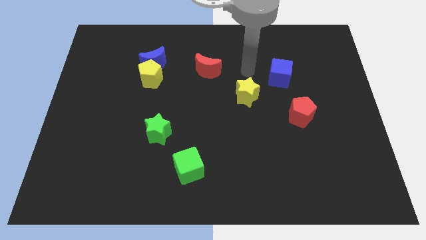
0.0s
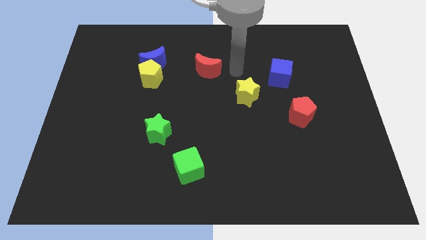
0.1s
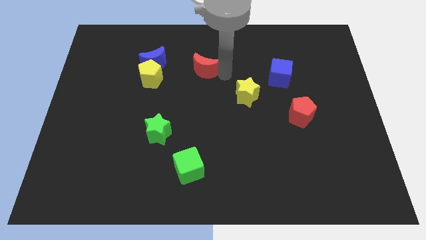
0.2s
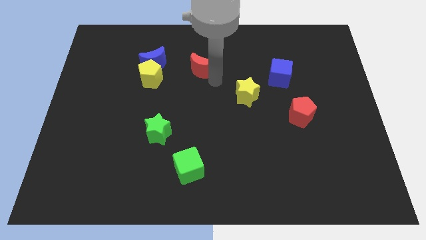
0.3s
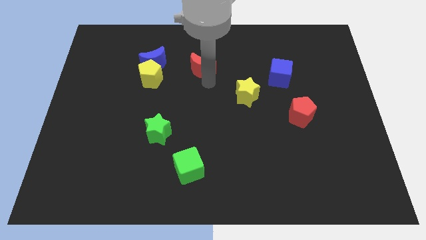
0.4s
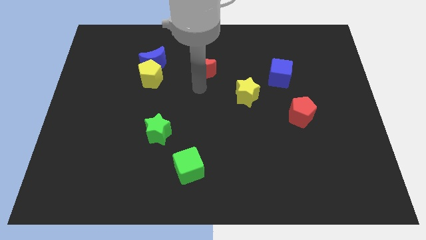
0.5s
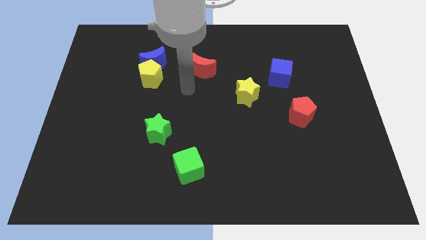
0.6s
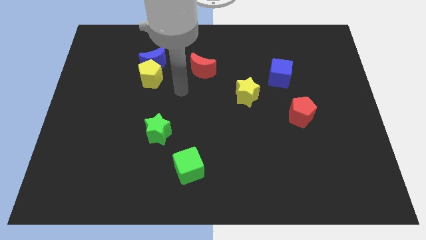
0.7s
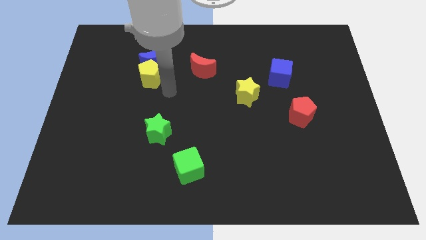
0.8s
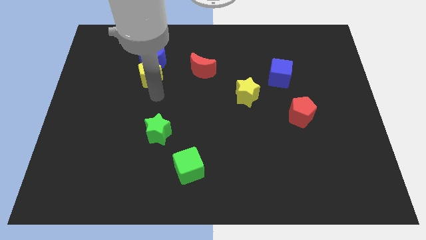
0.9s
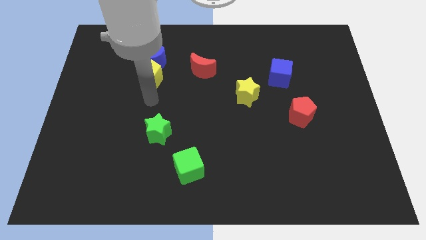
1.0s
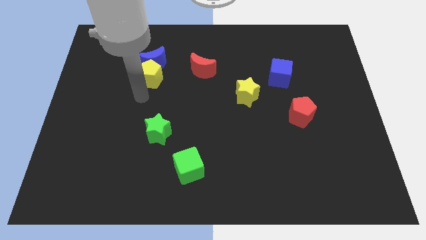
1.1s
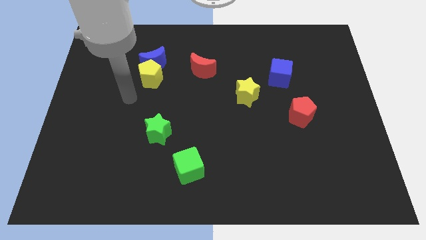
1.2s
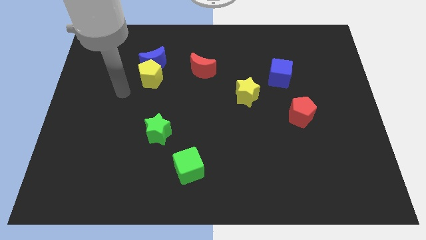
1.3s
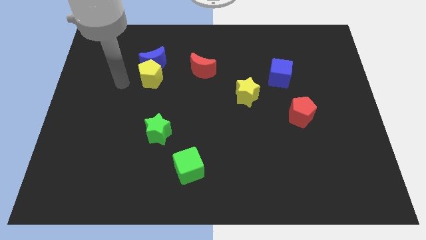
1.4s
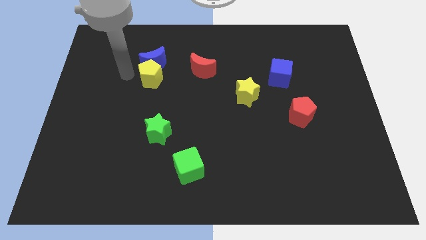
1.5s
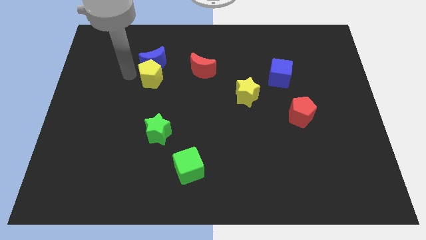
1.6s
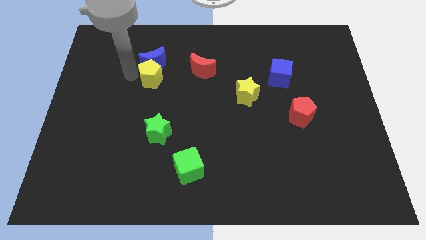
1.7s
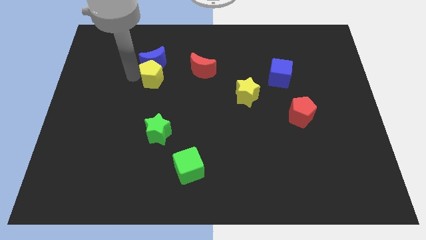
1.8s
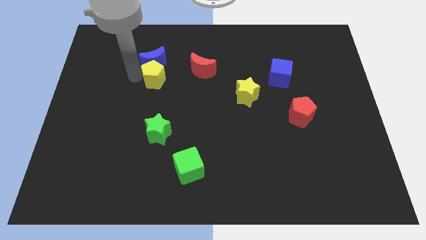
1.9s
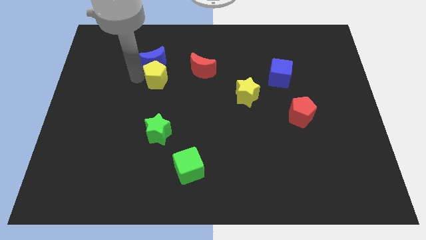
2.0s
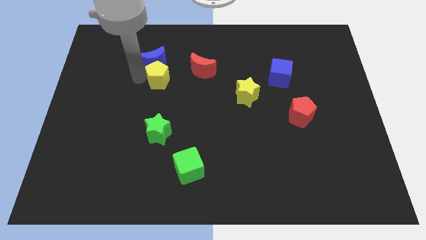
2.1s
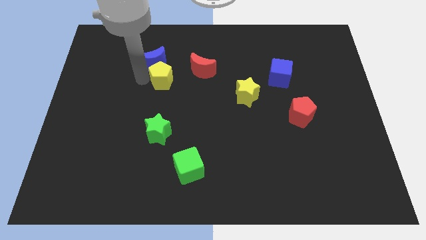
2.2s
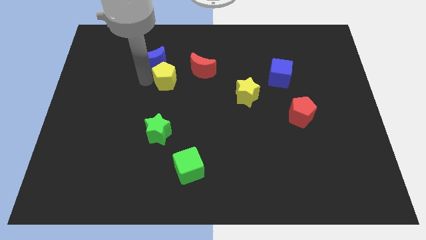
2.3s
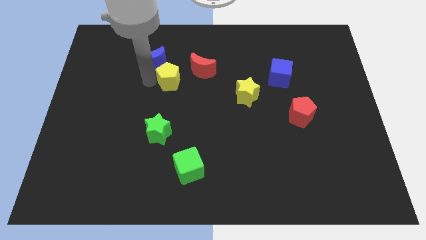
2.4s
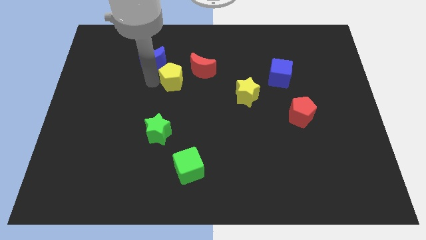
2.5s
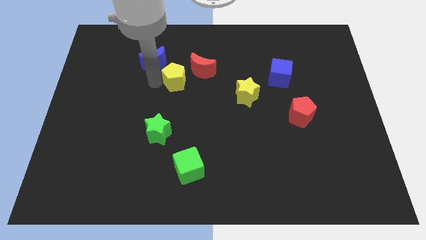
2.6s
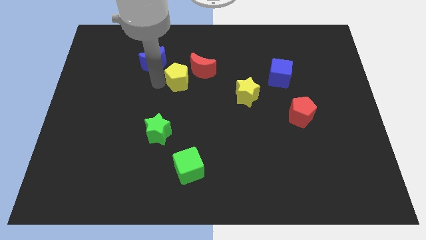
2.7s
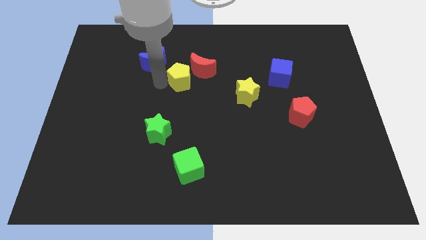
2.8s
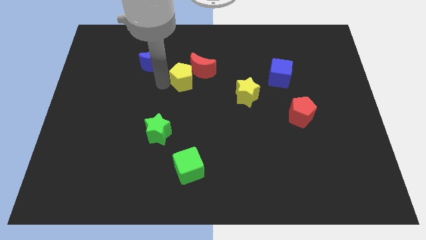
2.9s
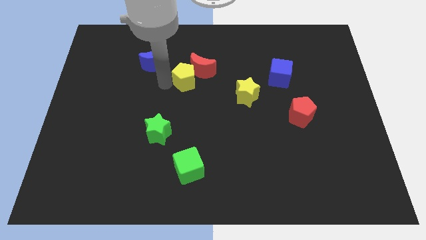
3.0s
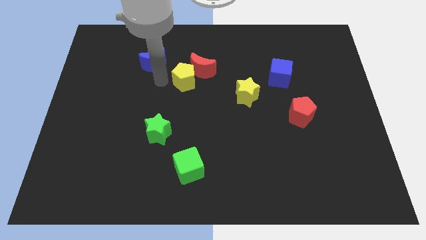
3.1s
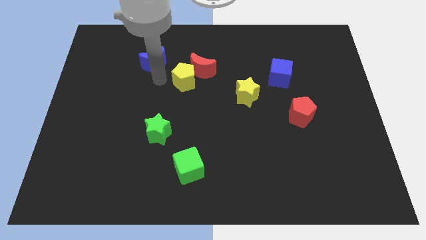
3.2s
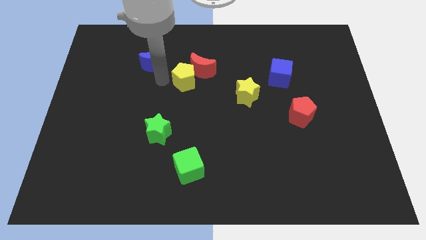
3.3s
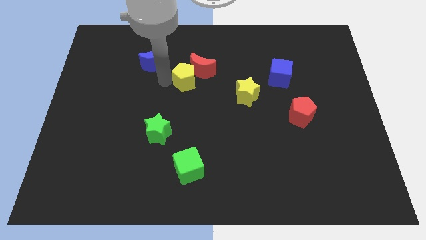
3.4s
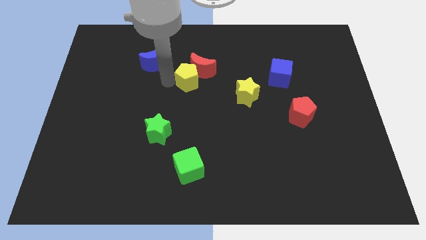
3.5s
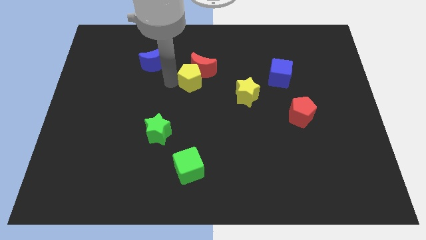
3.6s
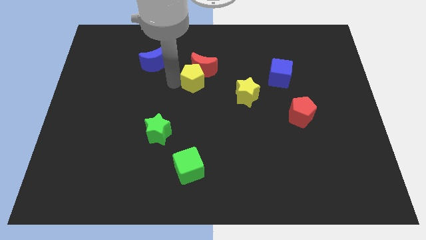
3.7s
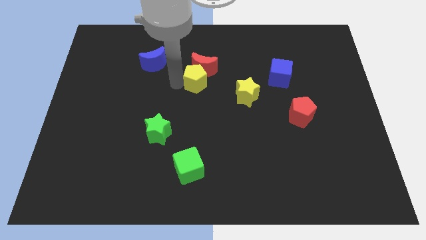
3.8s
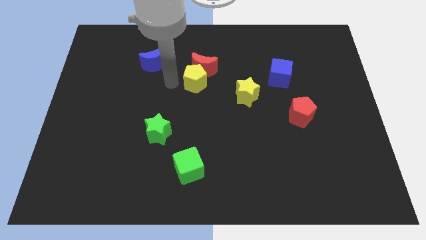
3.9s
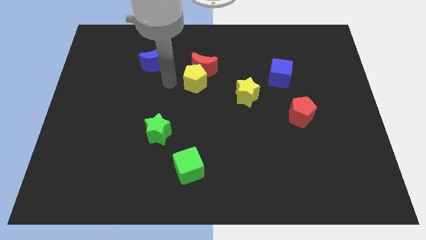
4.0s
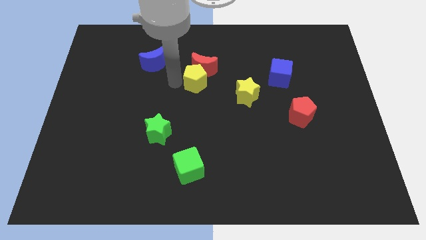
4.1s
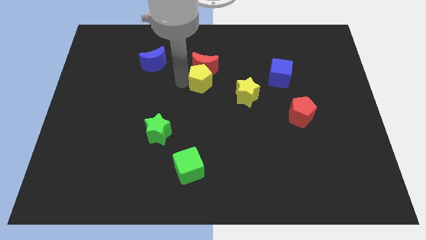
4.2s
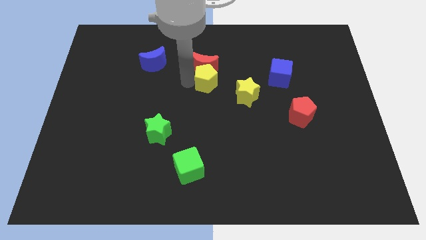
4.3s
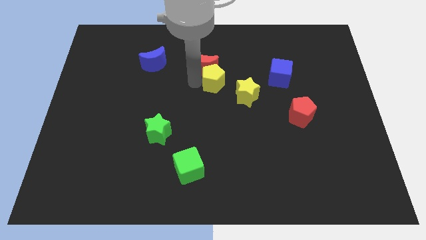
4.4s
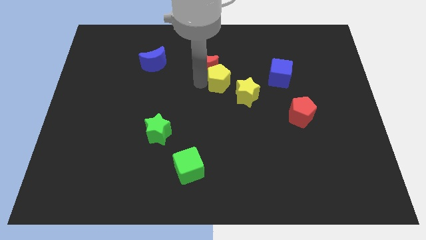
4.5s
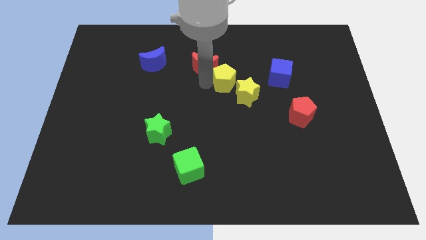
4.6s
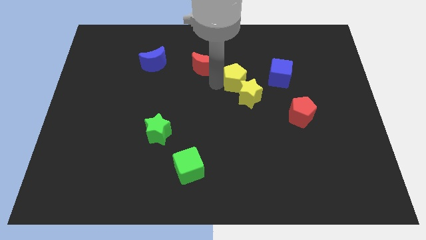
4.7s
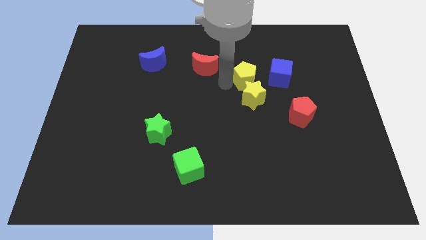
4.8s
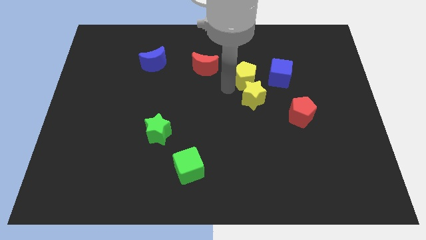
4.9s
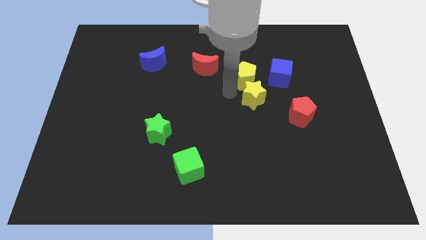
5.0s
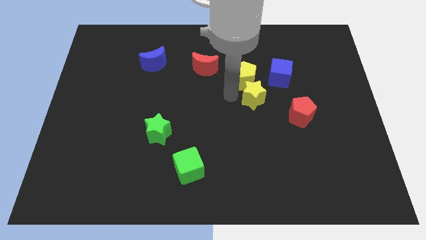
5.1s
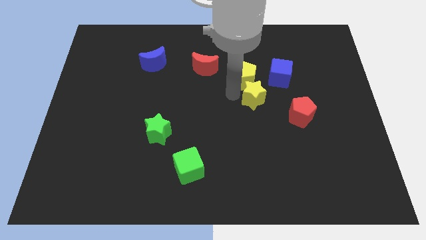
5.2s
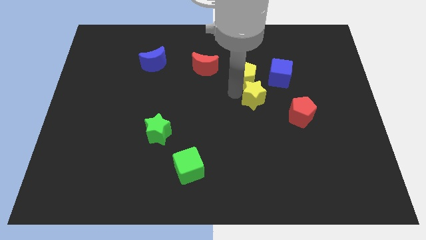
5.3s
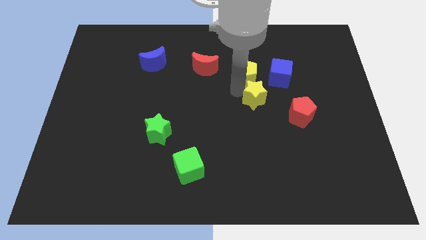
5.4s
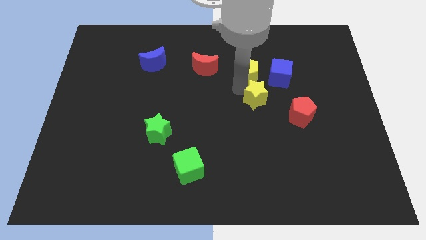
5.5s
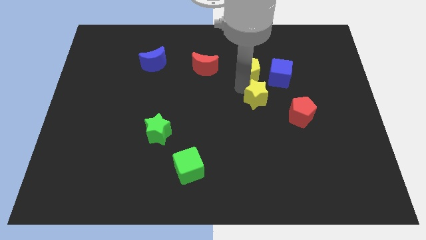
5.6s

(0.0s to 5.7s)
slide the yellow pentagon to the top left of the blue cube

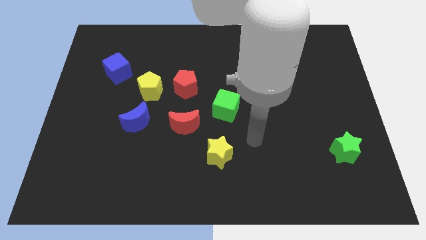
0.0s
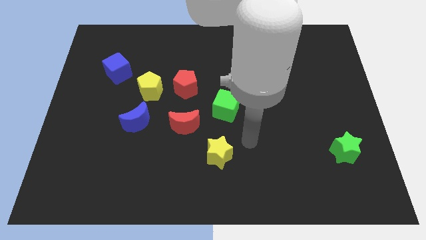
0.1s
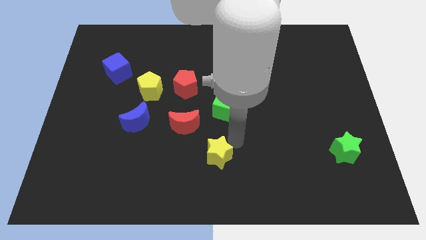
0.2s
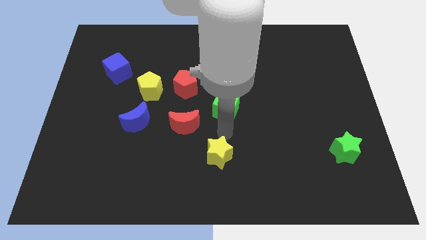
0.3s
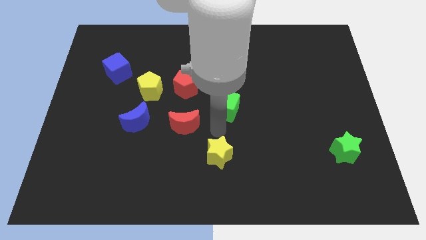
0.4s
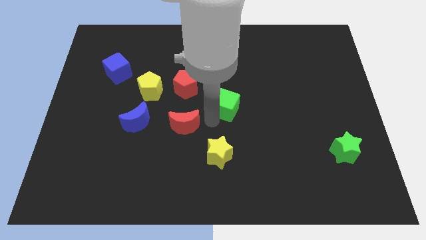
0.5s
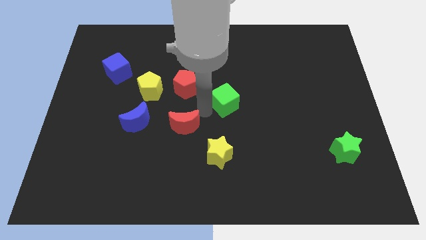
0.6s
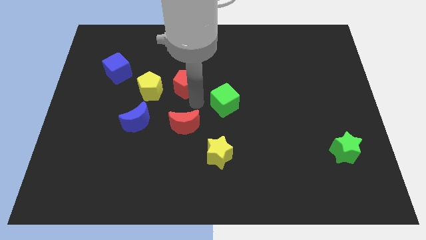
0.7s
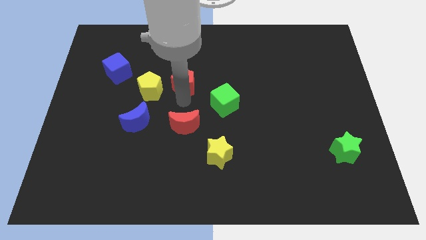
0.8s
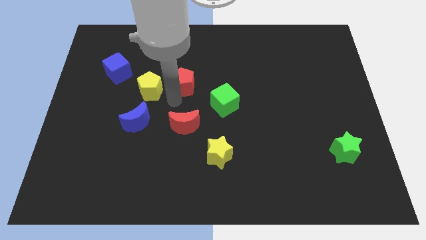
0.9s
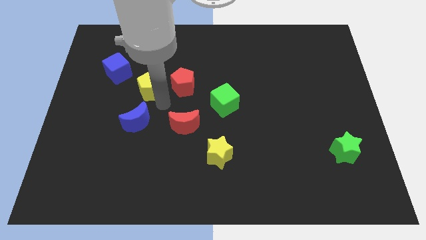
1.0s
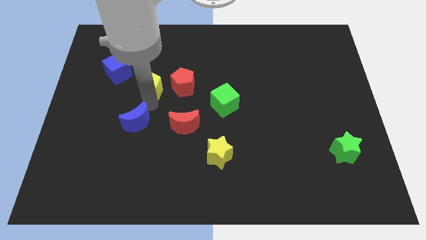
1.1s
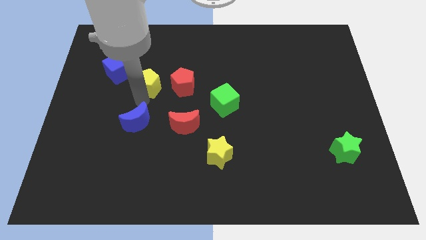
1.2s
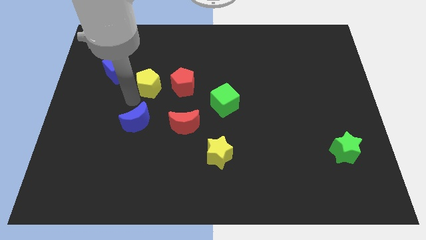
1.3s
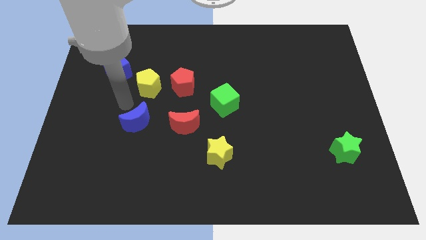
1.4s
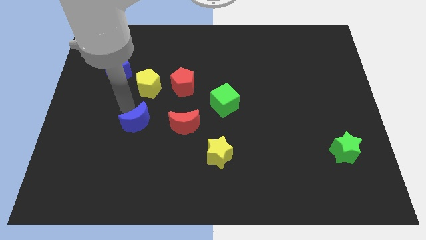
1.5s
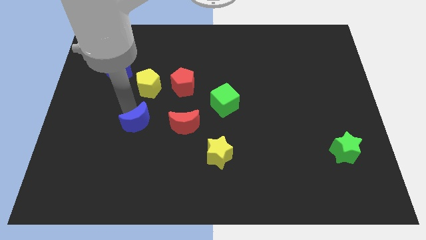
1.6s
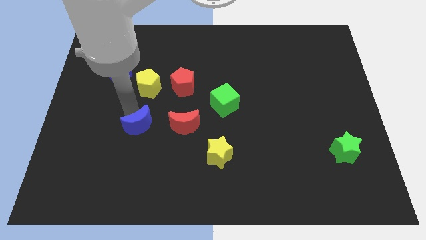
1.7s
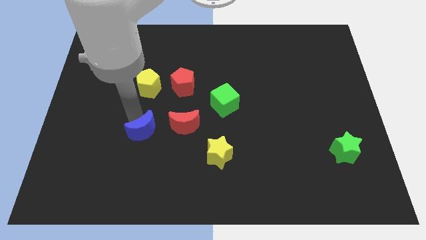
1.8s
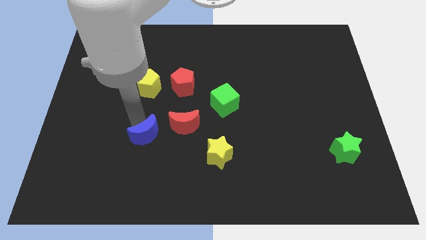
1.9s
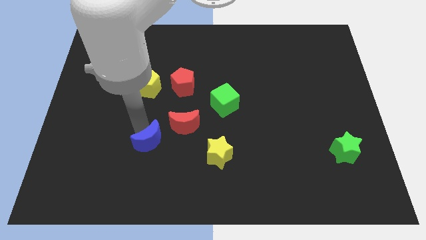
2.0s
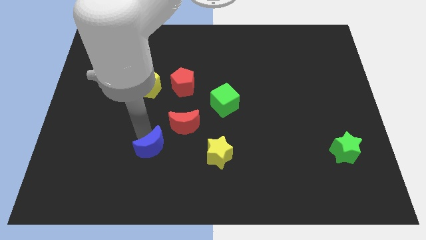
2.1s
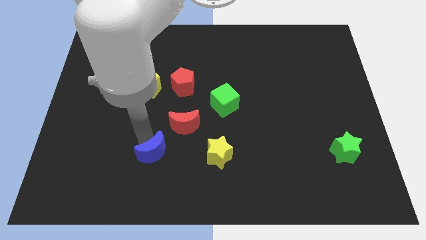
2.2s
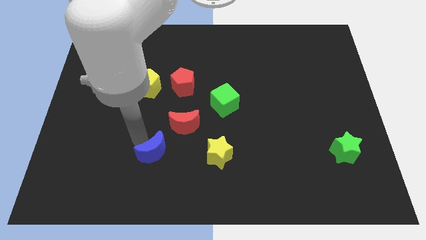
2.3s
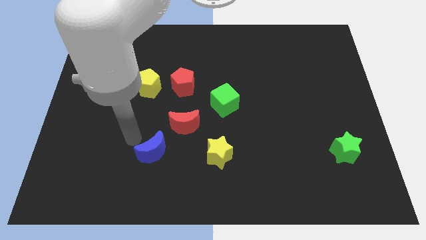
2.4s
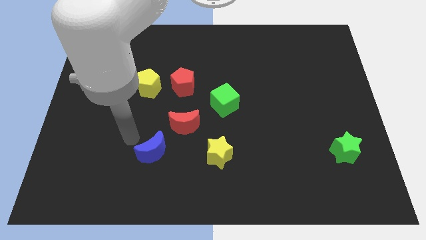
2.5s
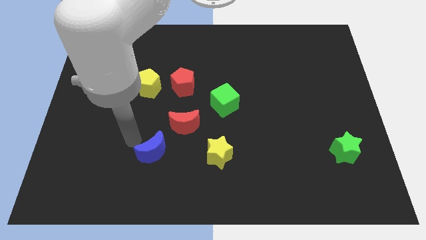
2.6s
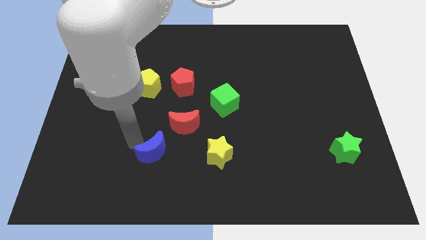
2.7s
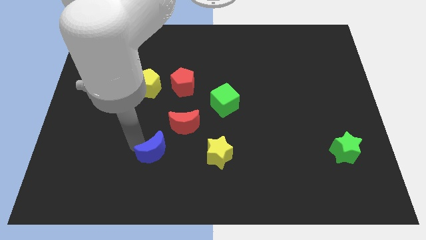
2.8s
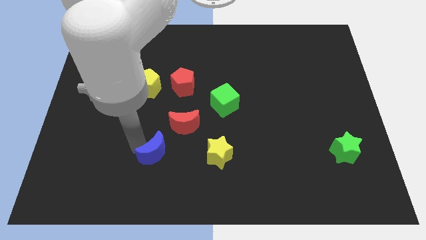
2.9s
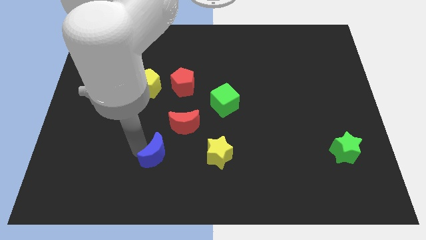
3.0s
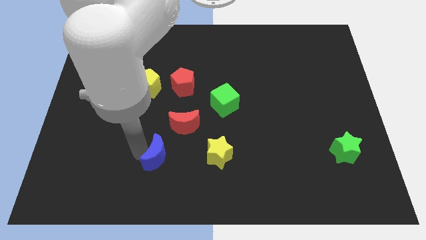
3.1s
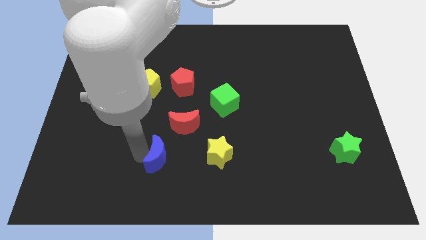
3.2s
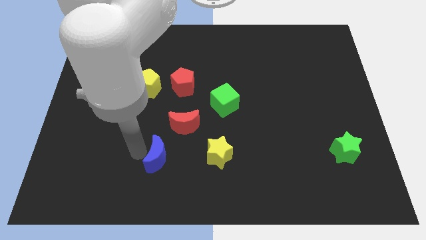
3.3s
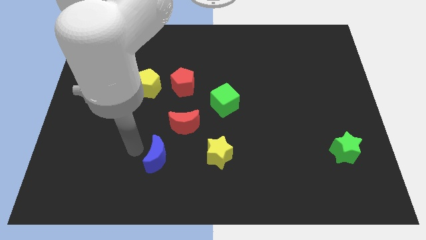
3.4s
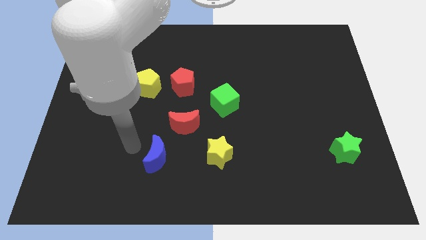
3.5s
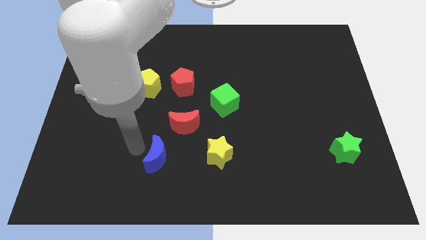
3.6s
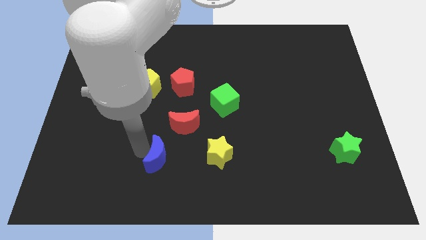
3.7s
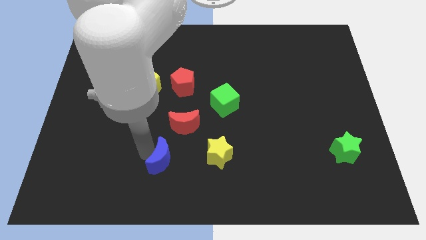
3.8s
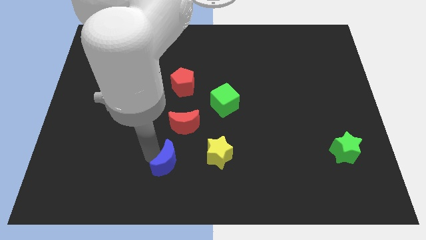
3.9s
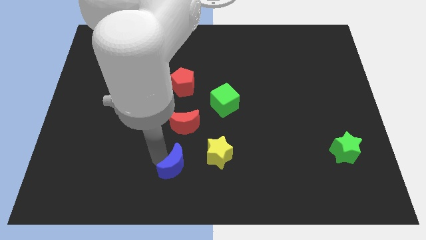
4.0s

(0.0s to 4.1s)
slide the blue moon to the bottom left side of the yellow star
